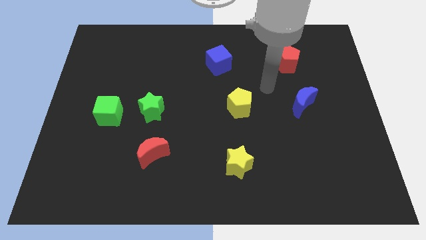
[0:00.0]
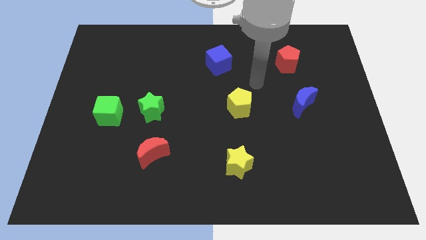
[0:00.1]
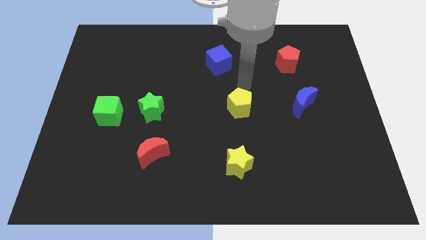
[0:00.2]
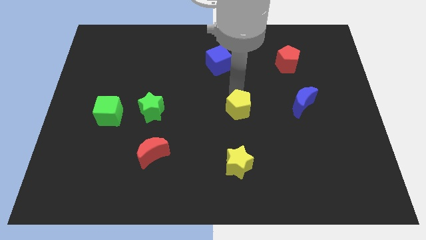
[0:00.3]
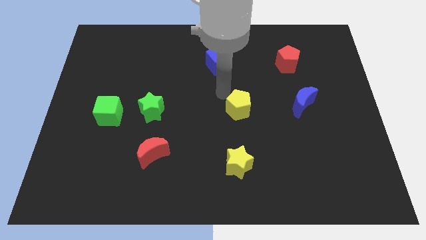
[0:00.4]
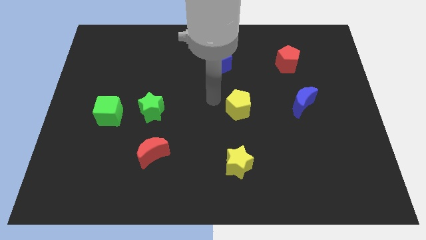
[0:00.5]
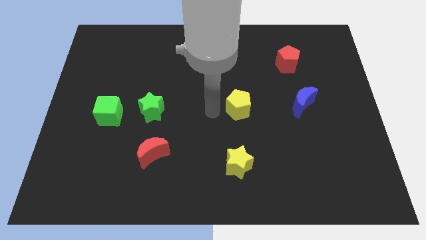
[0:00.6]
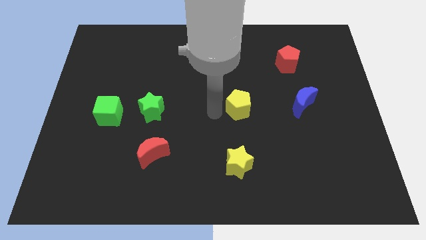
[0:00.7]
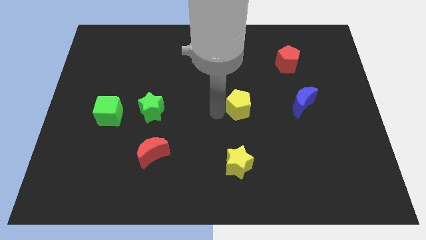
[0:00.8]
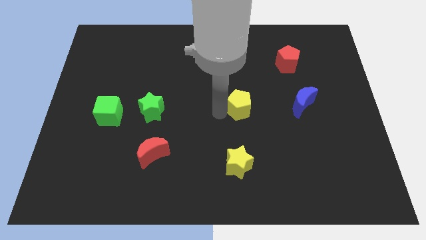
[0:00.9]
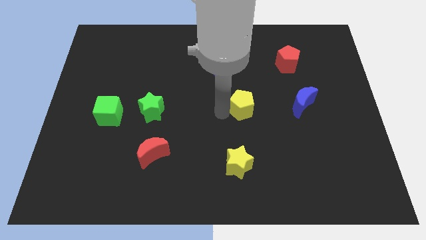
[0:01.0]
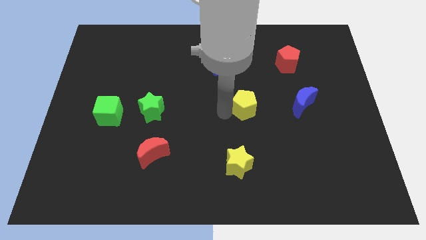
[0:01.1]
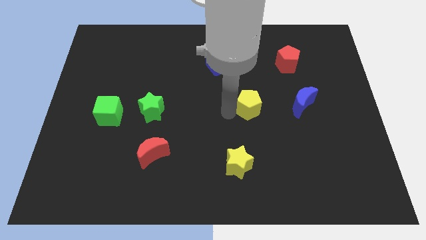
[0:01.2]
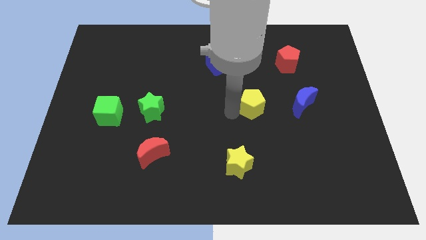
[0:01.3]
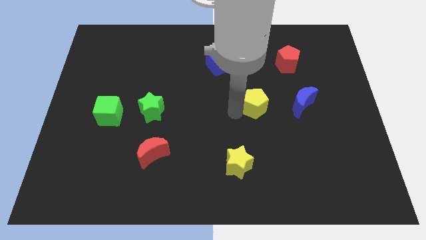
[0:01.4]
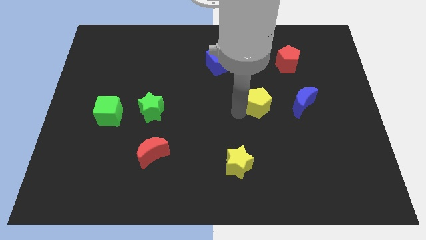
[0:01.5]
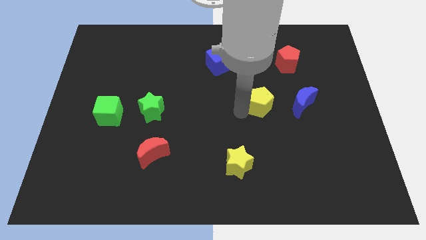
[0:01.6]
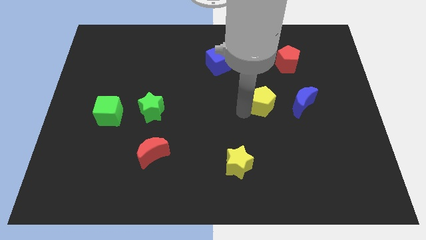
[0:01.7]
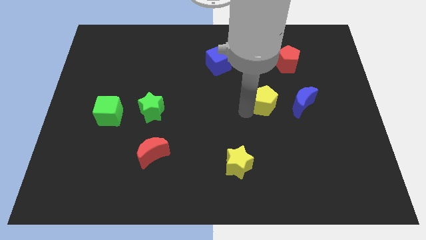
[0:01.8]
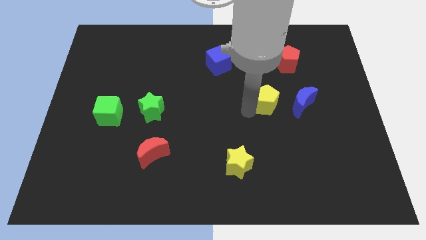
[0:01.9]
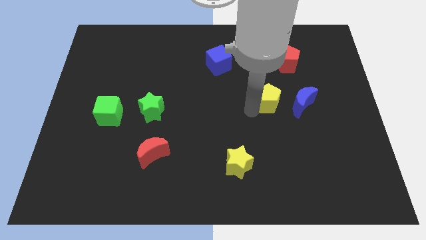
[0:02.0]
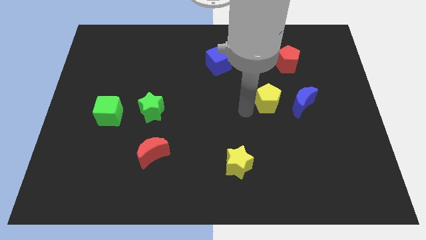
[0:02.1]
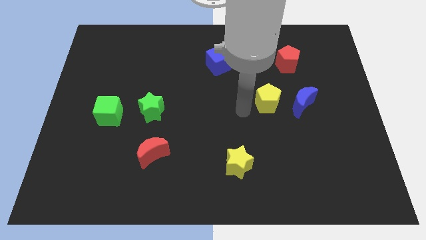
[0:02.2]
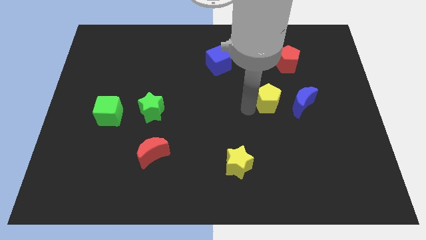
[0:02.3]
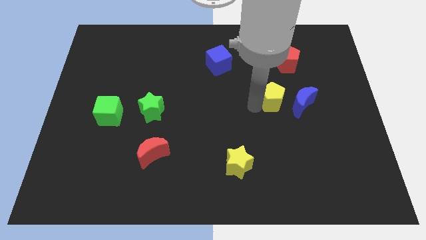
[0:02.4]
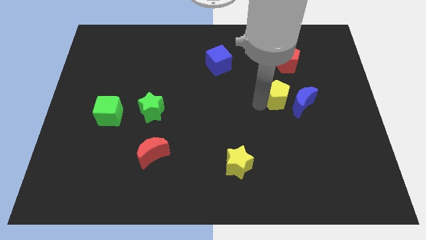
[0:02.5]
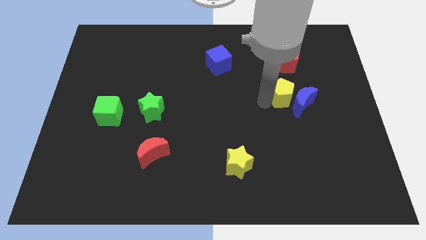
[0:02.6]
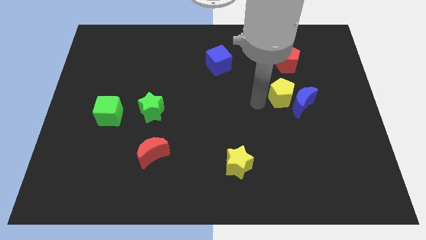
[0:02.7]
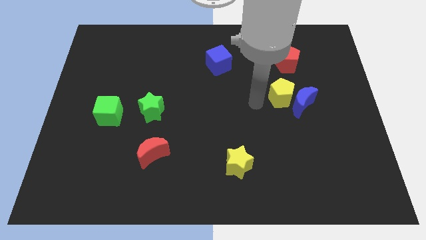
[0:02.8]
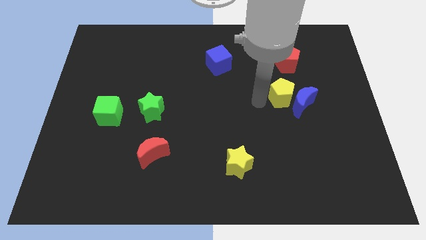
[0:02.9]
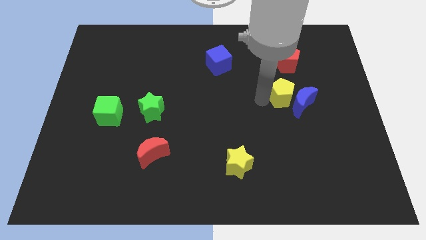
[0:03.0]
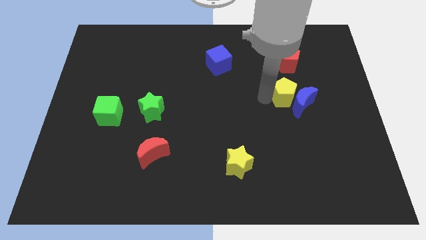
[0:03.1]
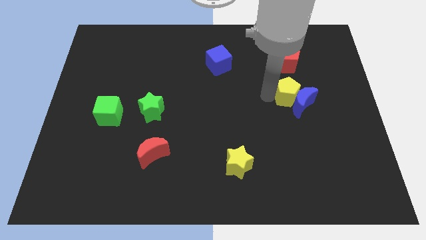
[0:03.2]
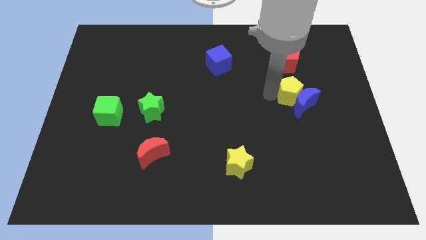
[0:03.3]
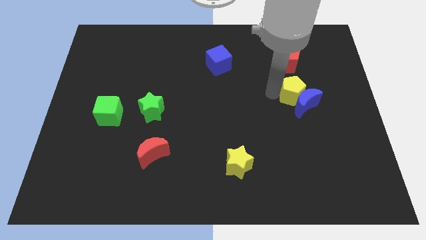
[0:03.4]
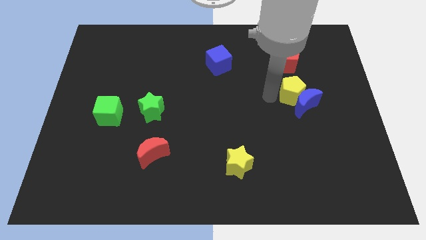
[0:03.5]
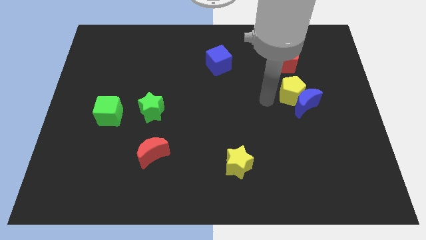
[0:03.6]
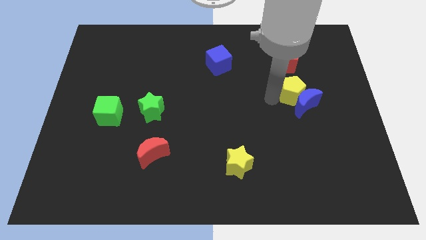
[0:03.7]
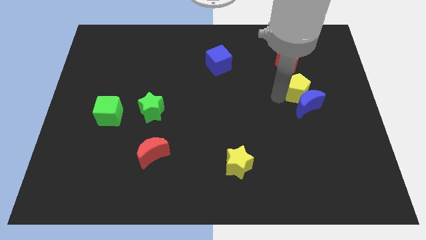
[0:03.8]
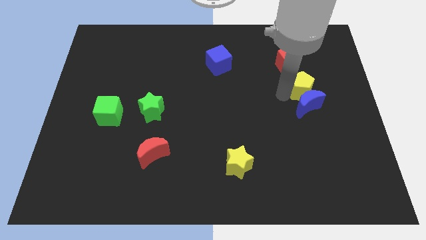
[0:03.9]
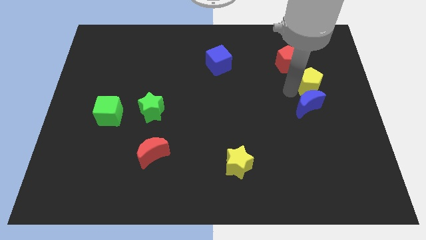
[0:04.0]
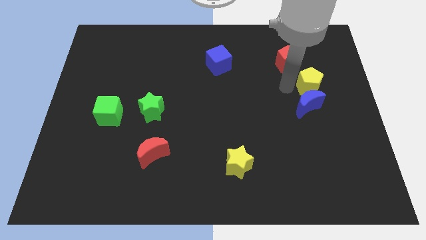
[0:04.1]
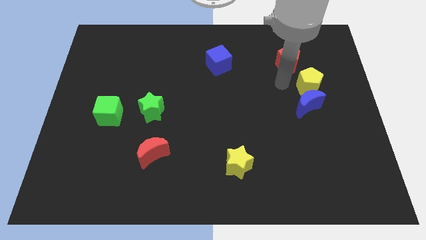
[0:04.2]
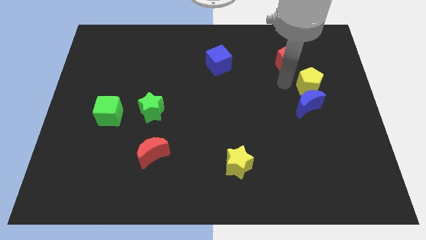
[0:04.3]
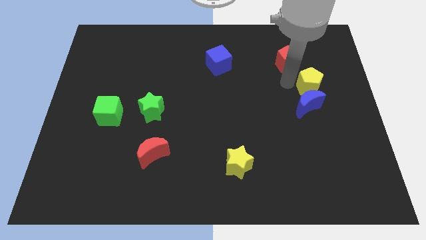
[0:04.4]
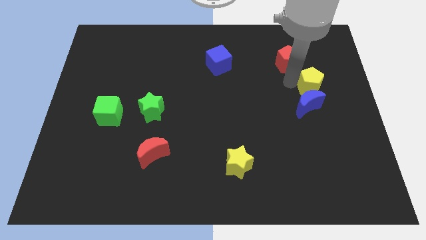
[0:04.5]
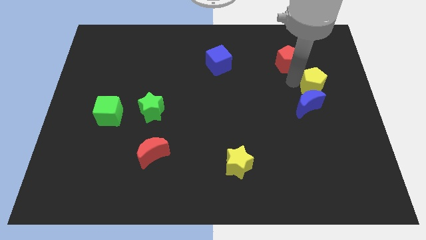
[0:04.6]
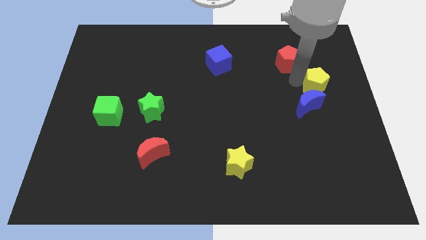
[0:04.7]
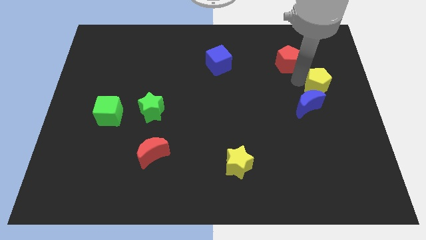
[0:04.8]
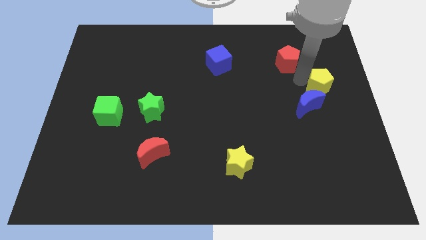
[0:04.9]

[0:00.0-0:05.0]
put the yellow pentagon to the center right

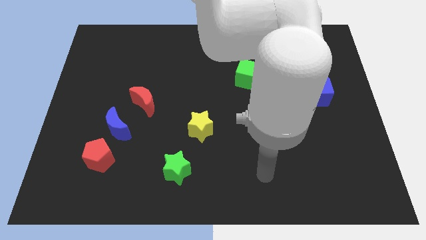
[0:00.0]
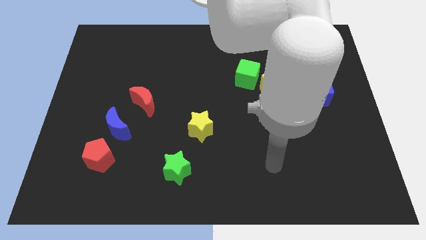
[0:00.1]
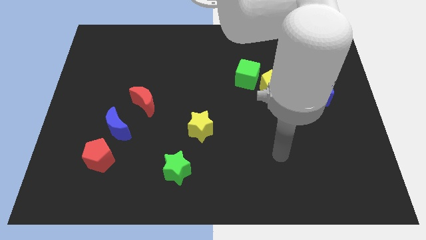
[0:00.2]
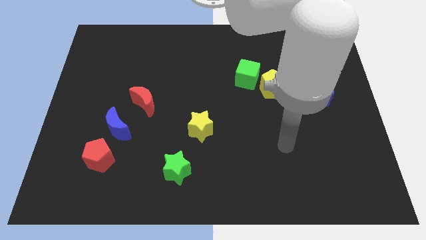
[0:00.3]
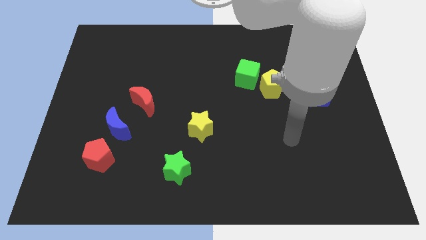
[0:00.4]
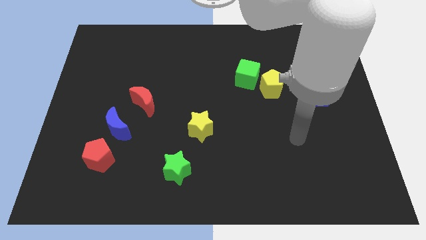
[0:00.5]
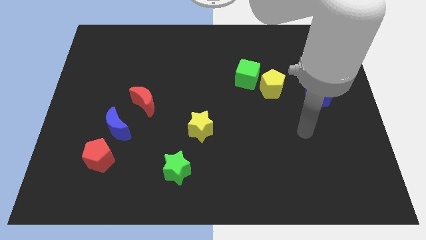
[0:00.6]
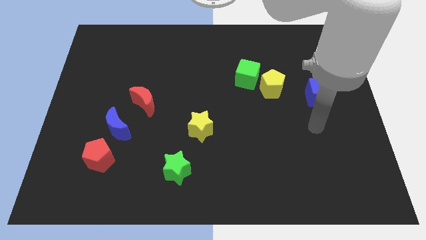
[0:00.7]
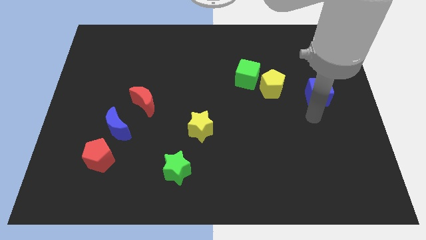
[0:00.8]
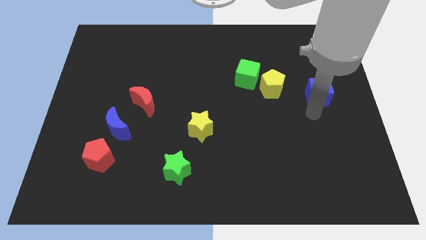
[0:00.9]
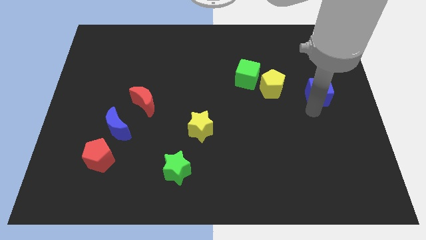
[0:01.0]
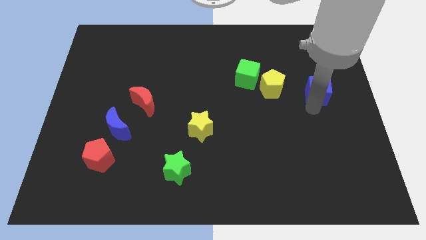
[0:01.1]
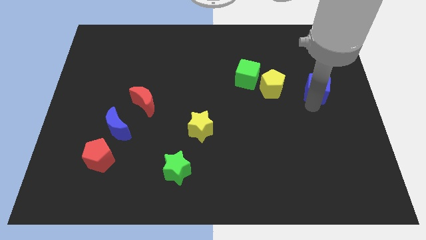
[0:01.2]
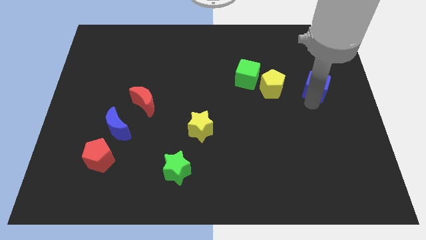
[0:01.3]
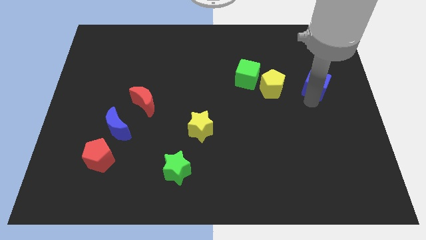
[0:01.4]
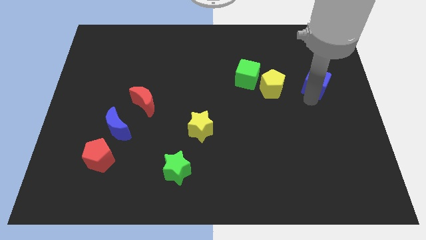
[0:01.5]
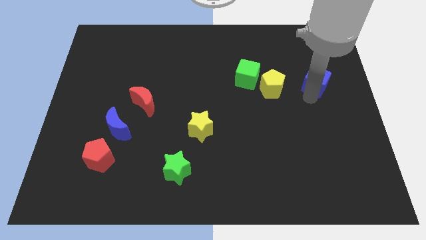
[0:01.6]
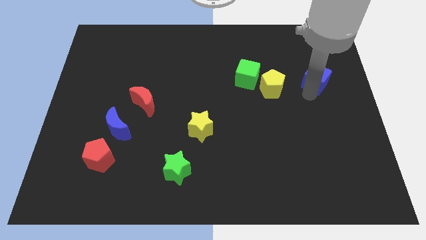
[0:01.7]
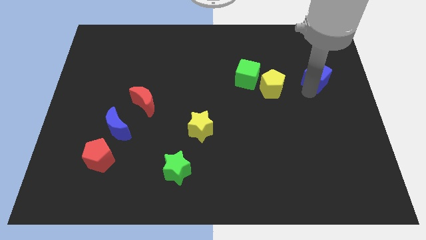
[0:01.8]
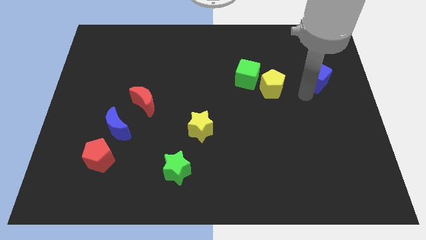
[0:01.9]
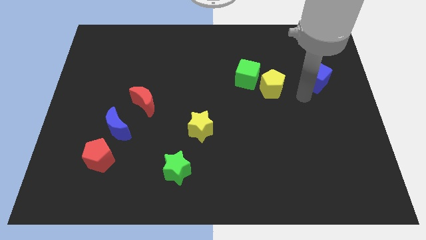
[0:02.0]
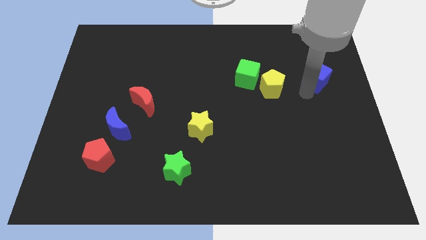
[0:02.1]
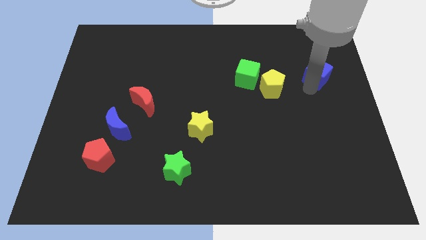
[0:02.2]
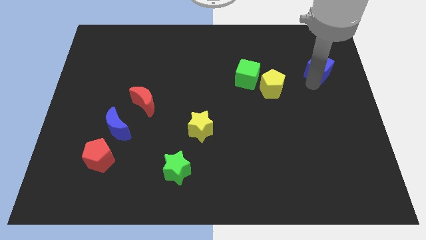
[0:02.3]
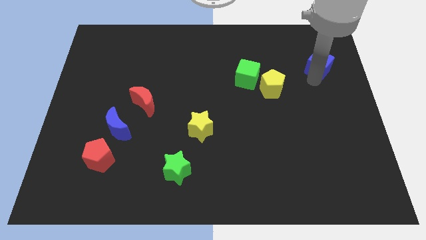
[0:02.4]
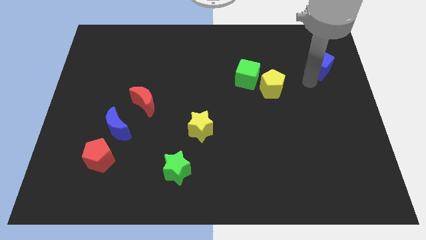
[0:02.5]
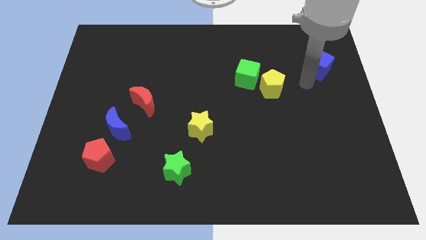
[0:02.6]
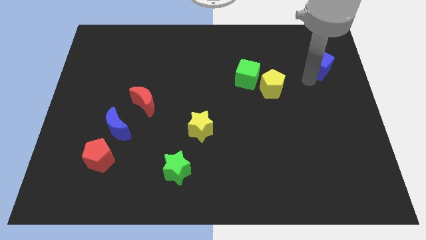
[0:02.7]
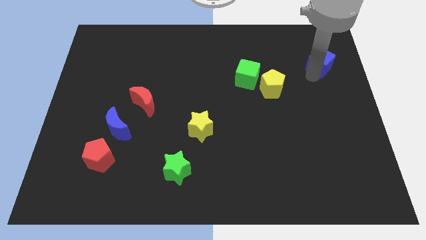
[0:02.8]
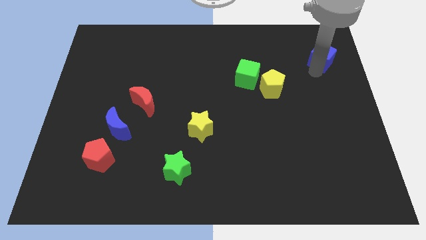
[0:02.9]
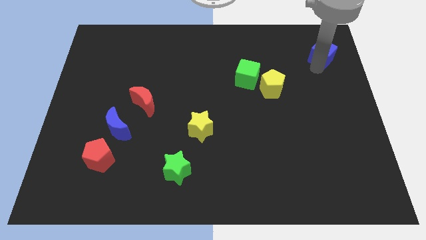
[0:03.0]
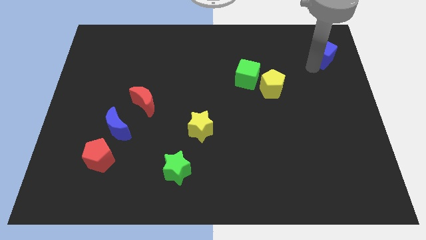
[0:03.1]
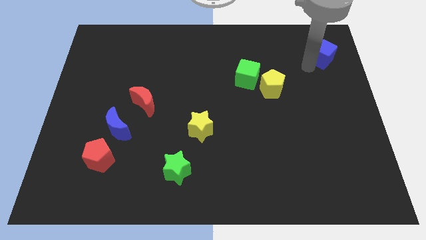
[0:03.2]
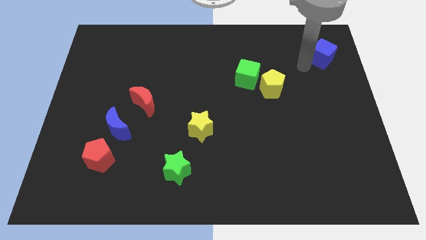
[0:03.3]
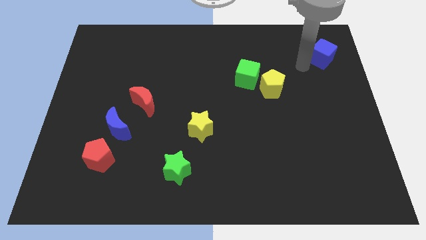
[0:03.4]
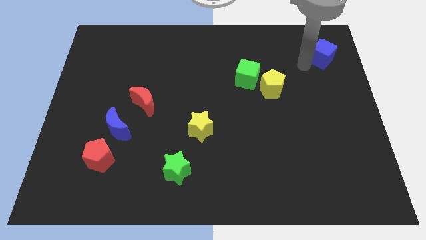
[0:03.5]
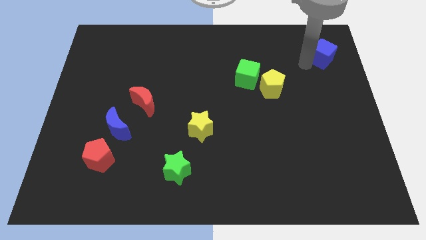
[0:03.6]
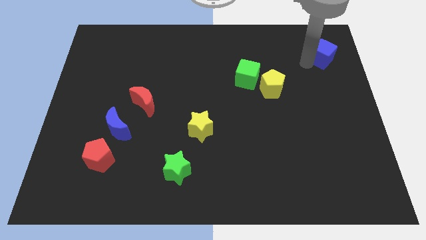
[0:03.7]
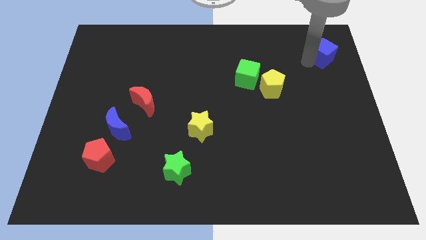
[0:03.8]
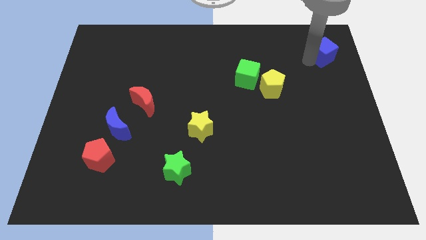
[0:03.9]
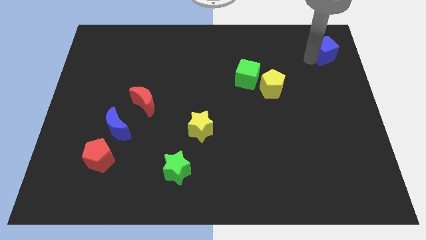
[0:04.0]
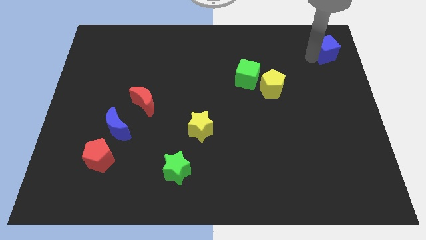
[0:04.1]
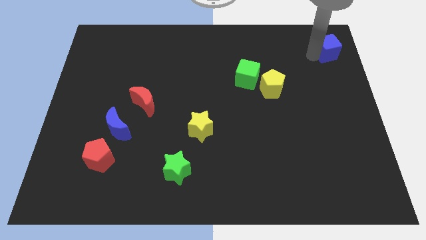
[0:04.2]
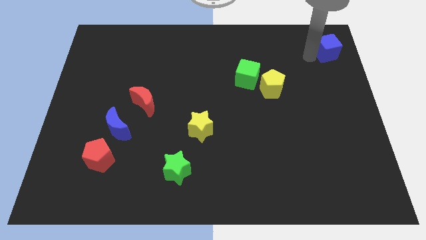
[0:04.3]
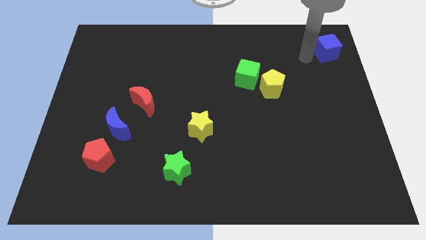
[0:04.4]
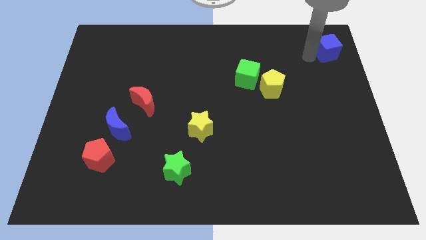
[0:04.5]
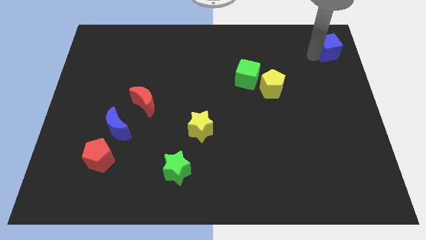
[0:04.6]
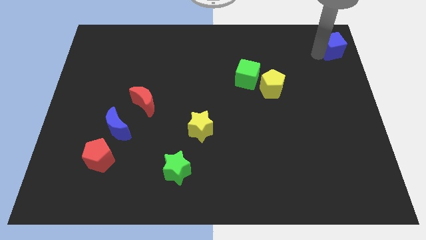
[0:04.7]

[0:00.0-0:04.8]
put the blue cube to the upper right corner
